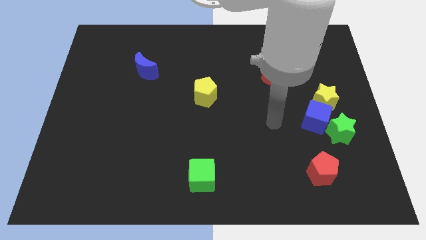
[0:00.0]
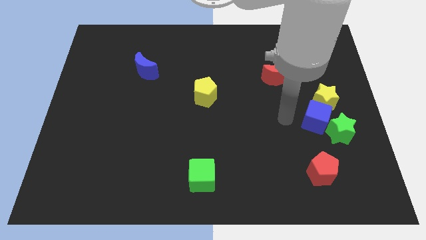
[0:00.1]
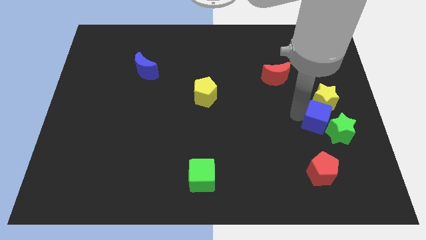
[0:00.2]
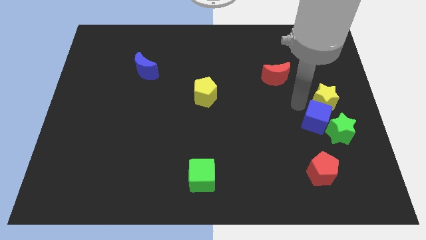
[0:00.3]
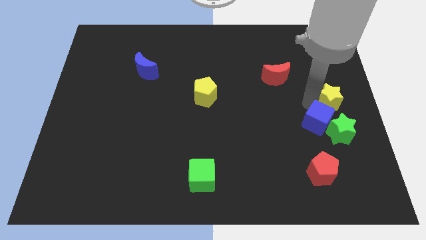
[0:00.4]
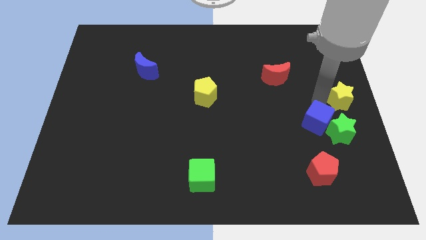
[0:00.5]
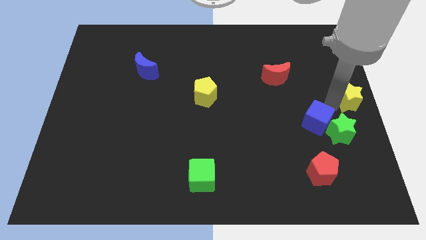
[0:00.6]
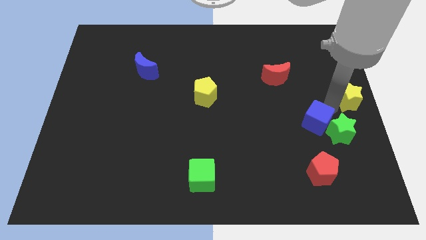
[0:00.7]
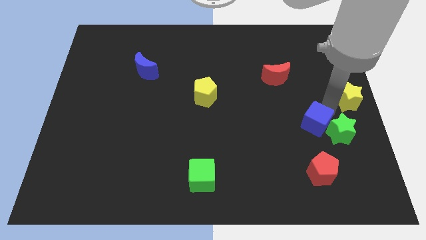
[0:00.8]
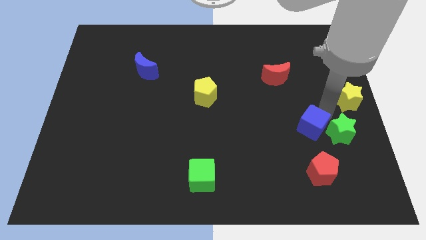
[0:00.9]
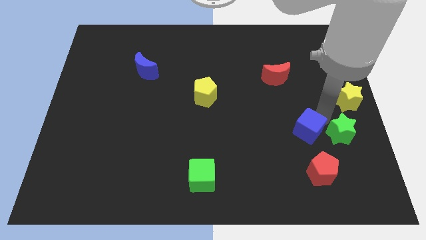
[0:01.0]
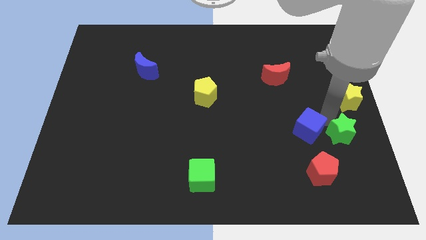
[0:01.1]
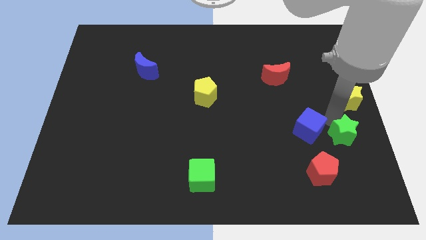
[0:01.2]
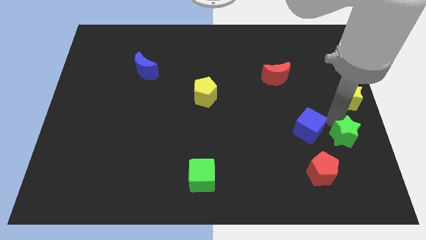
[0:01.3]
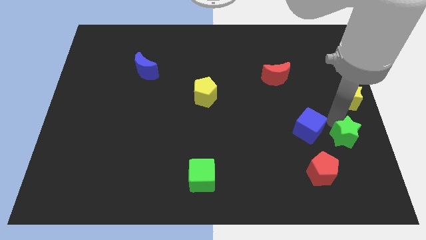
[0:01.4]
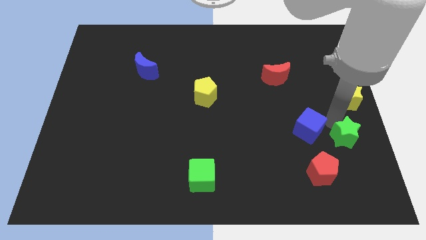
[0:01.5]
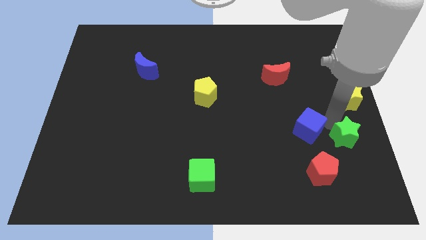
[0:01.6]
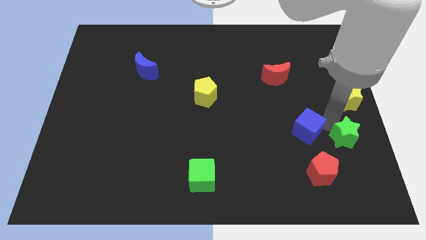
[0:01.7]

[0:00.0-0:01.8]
separate the blue cube from the yellow star and green star

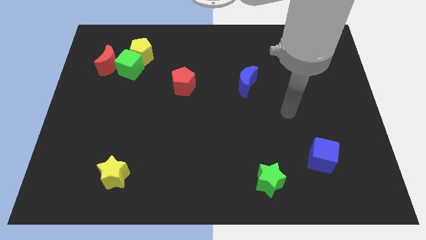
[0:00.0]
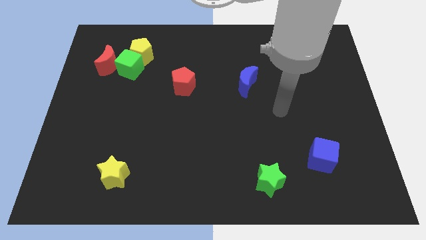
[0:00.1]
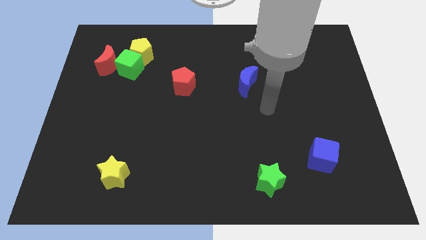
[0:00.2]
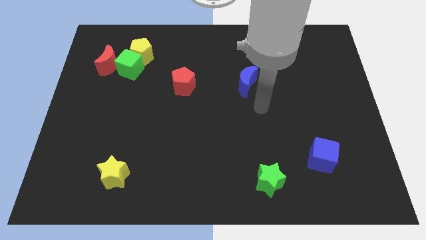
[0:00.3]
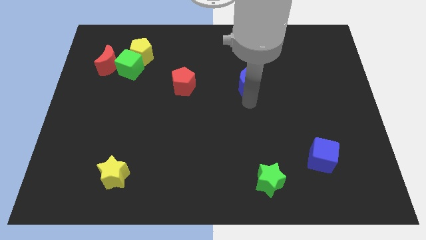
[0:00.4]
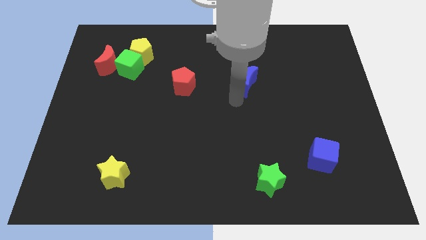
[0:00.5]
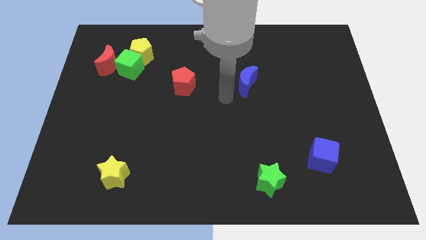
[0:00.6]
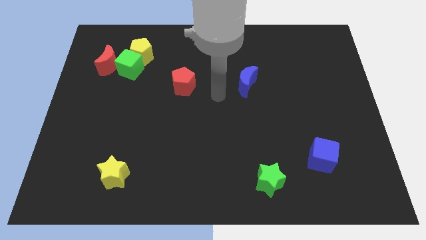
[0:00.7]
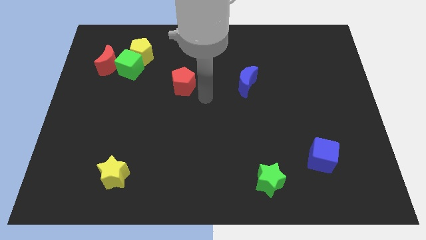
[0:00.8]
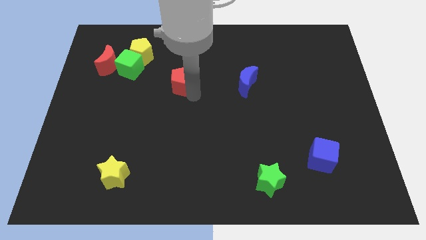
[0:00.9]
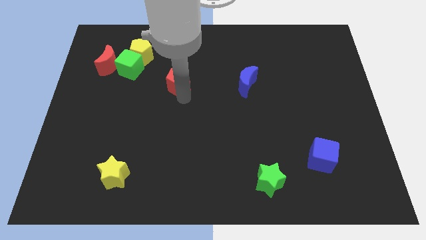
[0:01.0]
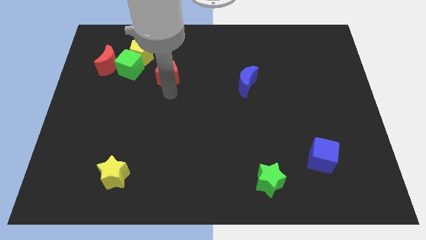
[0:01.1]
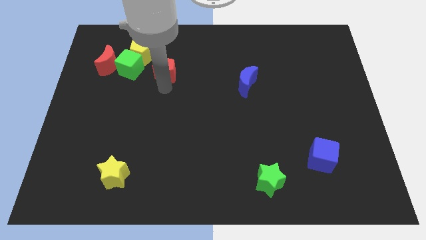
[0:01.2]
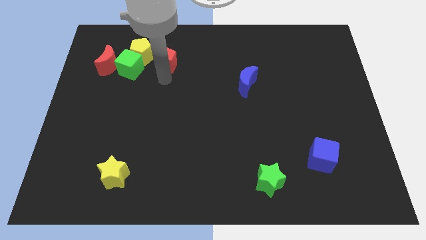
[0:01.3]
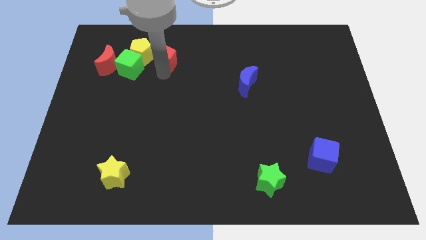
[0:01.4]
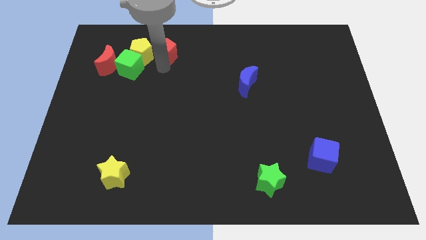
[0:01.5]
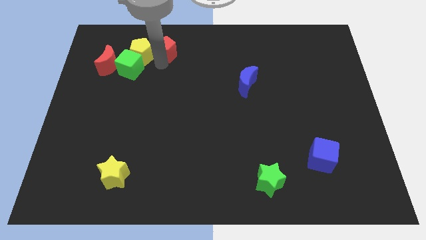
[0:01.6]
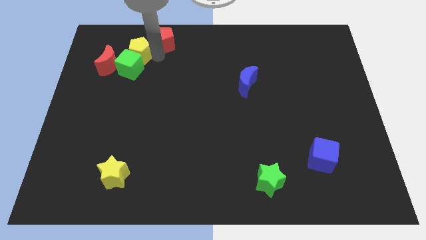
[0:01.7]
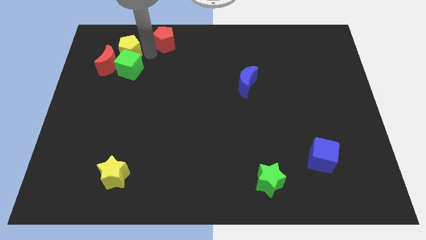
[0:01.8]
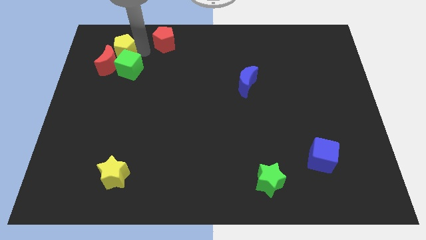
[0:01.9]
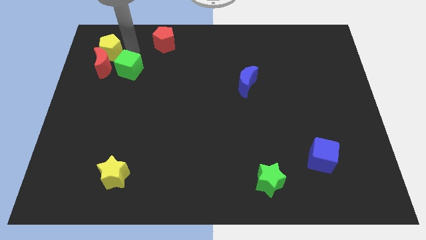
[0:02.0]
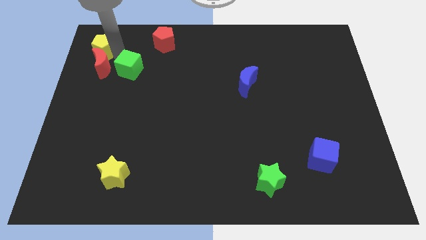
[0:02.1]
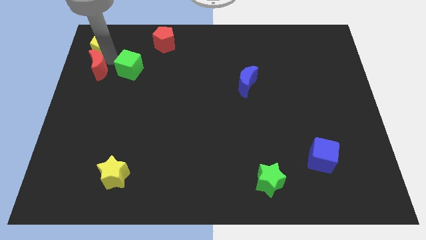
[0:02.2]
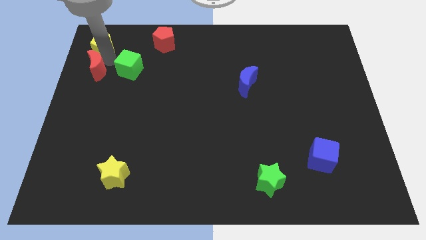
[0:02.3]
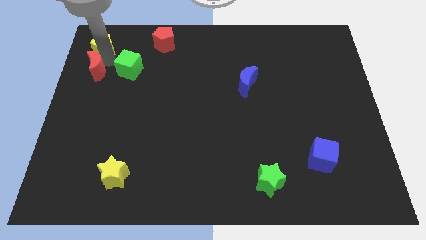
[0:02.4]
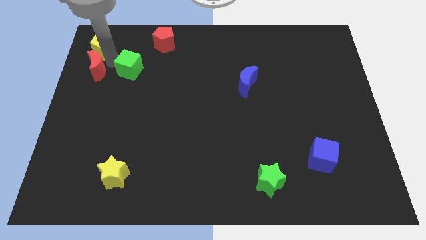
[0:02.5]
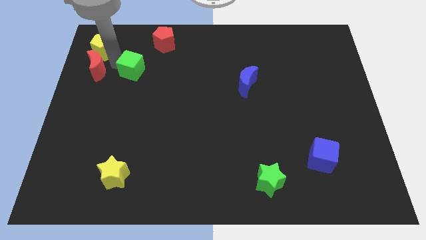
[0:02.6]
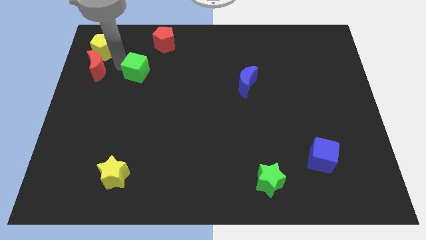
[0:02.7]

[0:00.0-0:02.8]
separate the green cube from the yellow pentagon and red moon

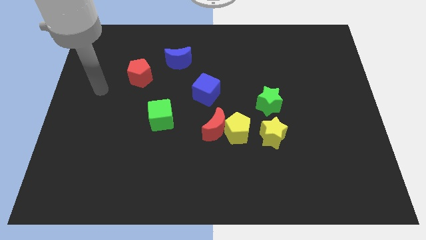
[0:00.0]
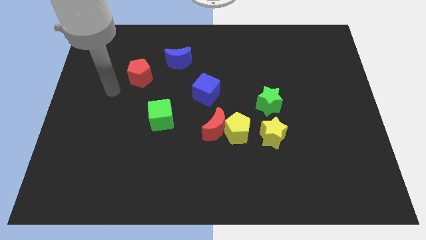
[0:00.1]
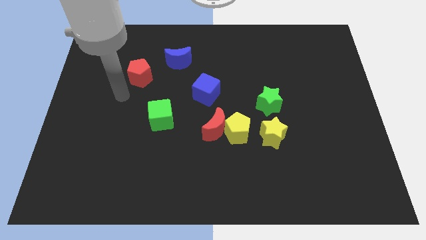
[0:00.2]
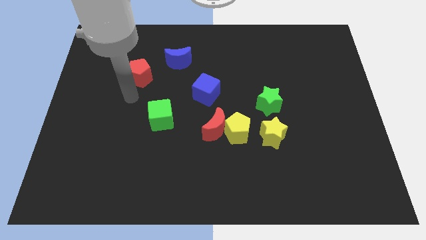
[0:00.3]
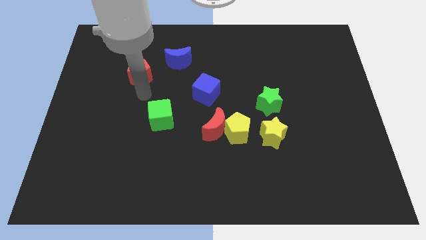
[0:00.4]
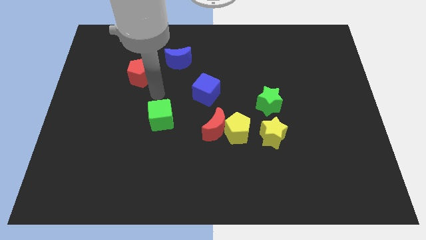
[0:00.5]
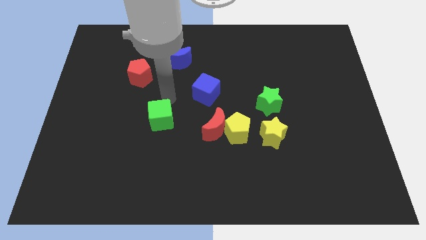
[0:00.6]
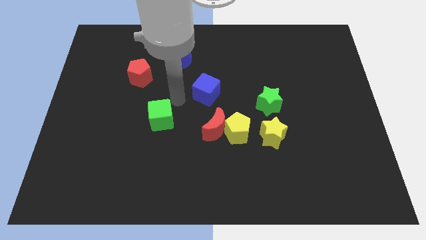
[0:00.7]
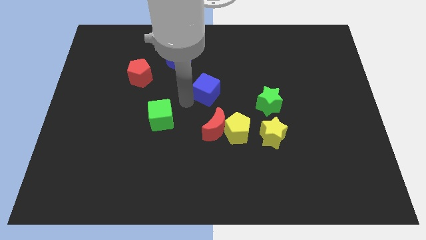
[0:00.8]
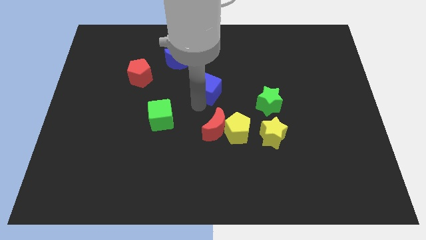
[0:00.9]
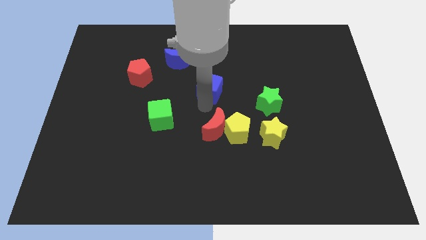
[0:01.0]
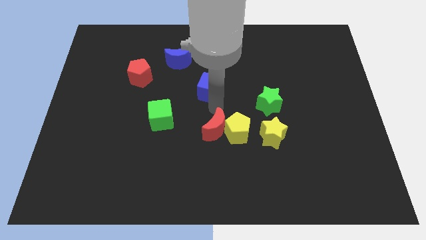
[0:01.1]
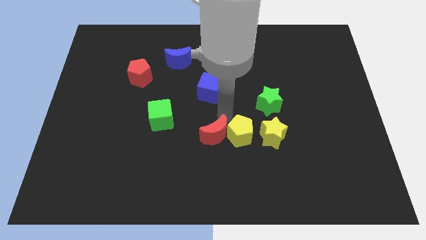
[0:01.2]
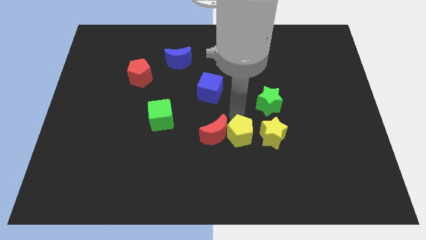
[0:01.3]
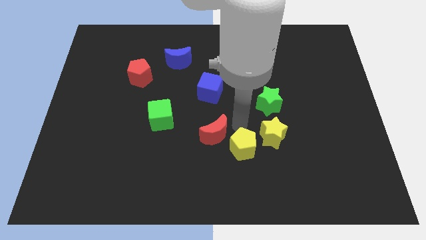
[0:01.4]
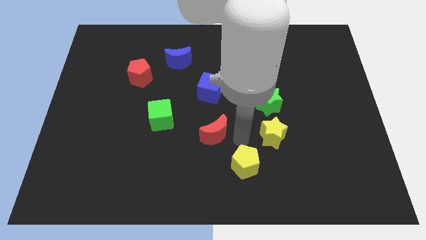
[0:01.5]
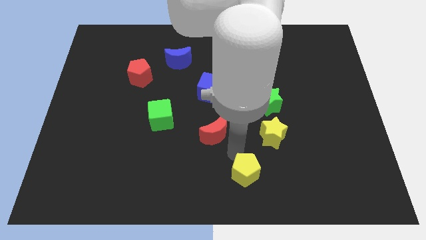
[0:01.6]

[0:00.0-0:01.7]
separate the red moon from the yellow pentagon

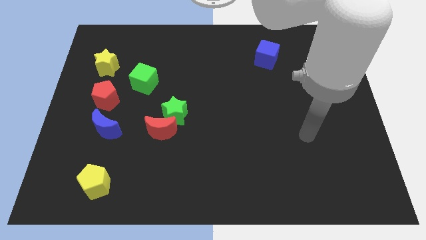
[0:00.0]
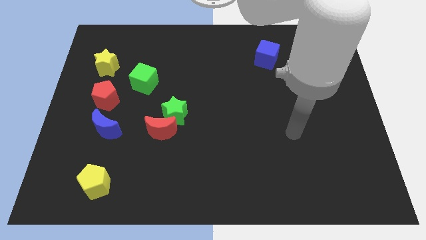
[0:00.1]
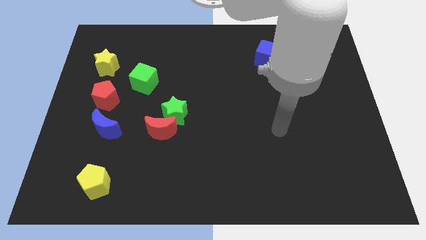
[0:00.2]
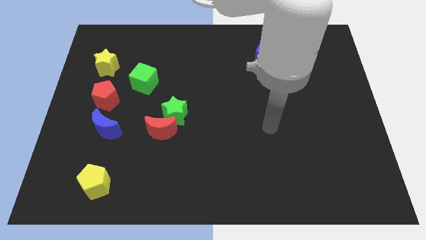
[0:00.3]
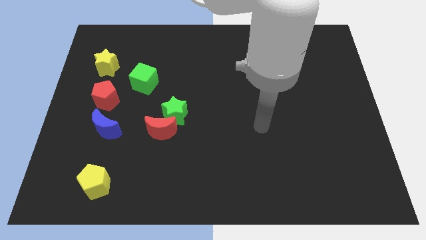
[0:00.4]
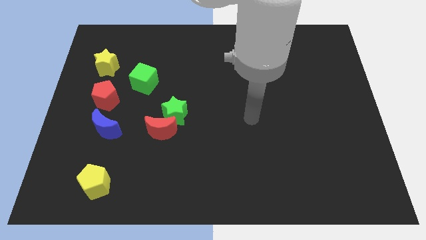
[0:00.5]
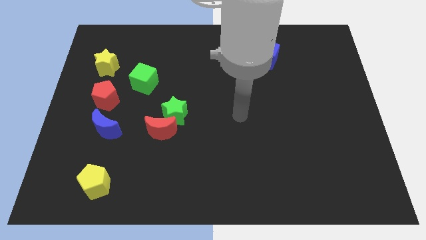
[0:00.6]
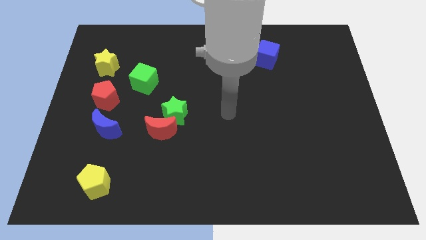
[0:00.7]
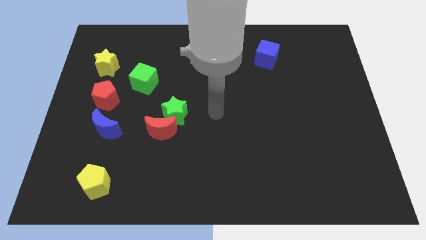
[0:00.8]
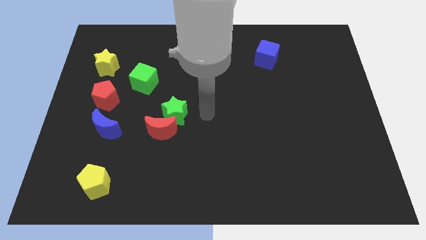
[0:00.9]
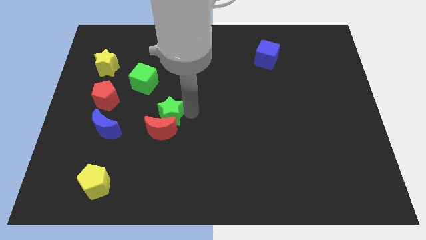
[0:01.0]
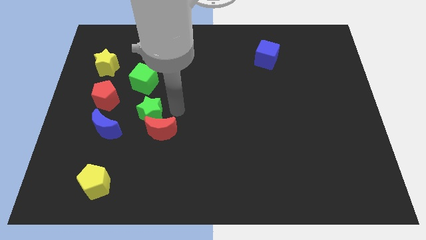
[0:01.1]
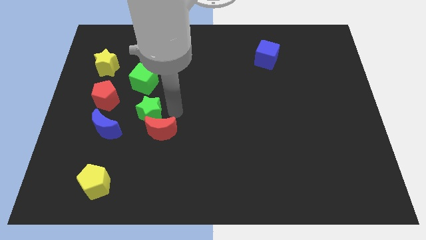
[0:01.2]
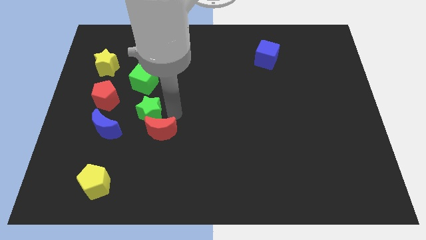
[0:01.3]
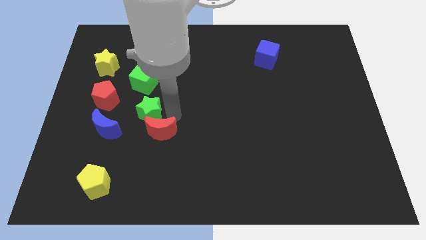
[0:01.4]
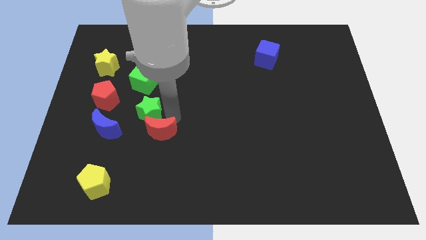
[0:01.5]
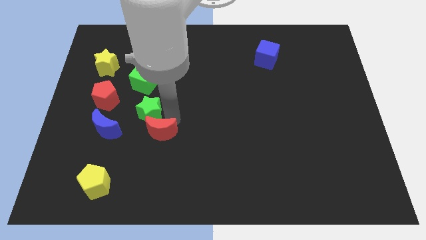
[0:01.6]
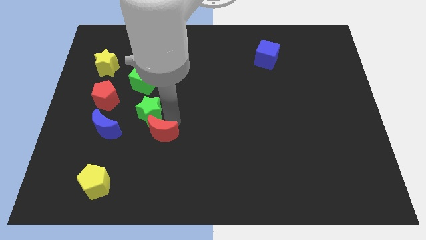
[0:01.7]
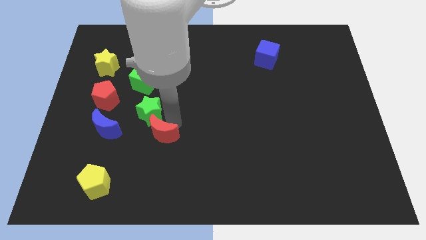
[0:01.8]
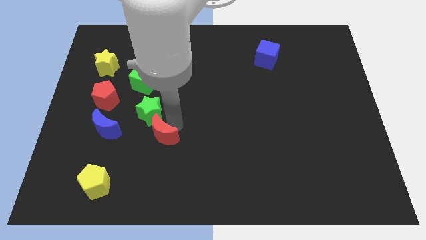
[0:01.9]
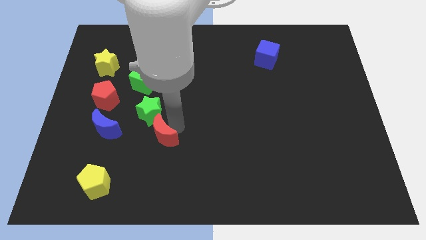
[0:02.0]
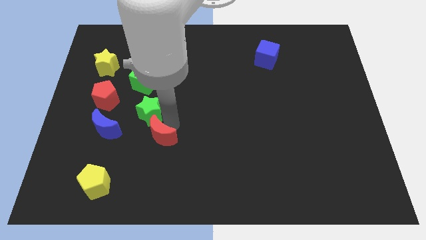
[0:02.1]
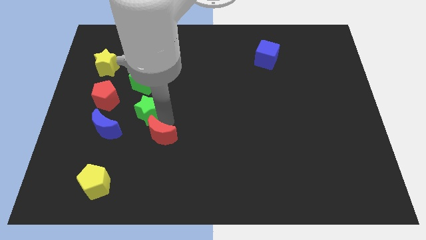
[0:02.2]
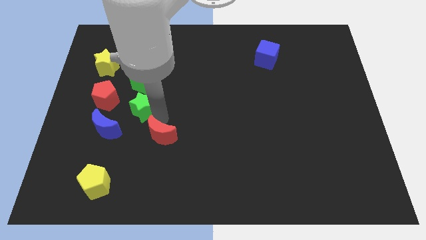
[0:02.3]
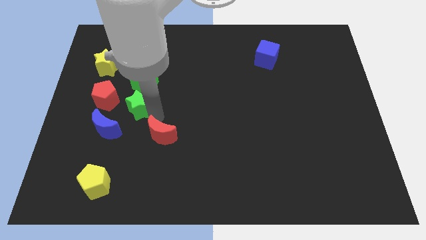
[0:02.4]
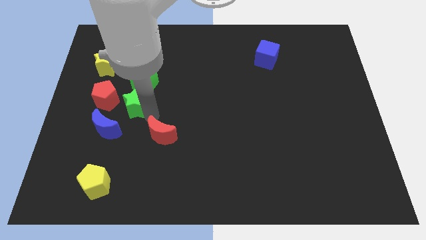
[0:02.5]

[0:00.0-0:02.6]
move the red moon away from the green star

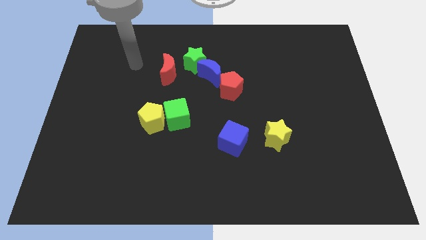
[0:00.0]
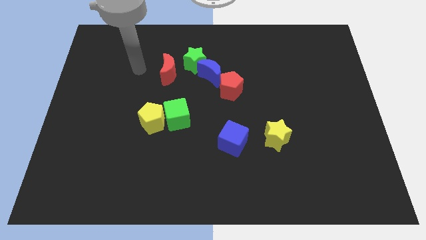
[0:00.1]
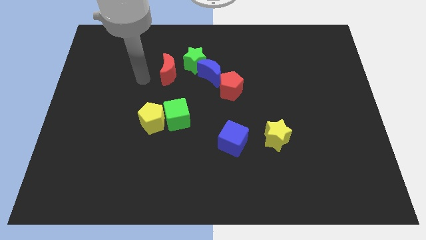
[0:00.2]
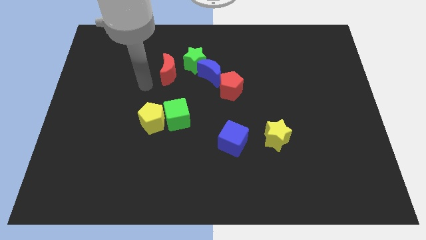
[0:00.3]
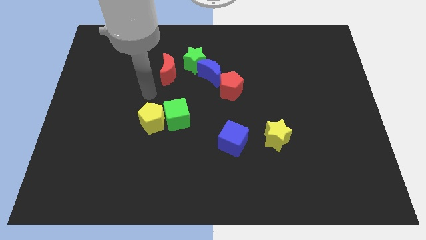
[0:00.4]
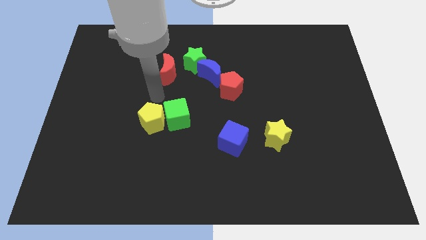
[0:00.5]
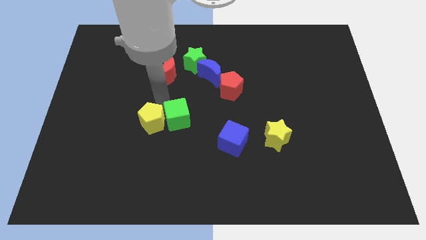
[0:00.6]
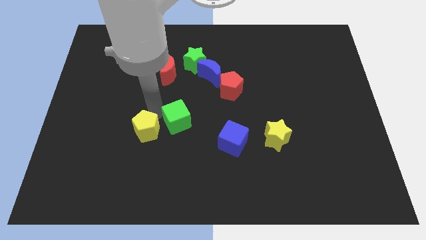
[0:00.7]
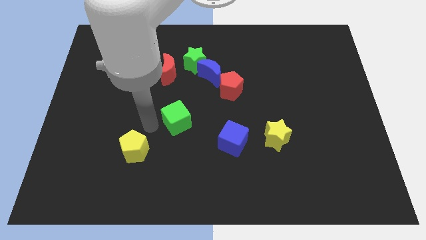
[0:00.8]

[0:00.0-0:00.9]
move the green cube away from the yellow pentagon
